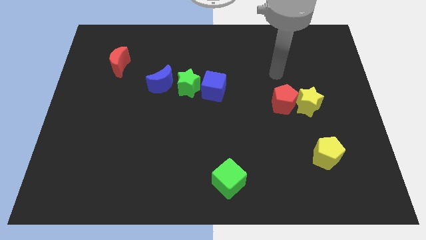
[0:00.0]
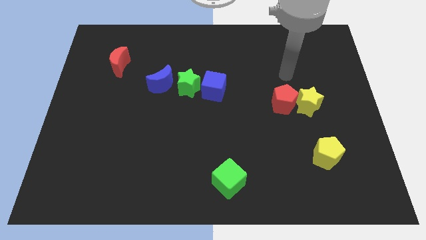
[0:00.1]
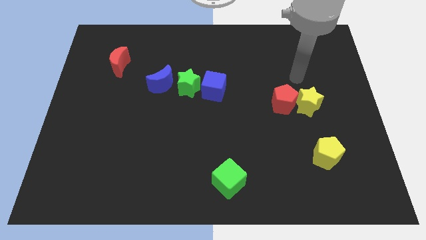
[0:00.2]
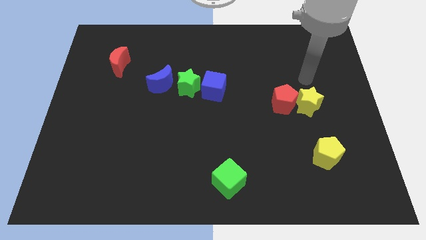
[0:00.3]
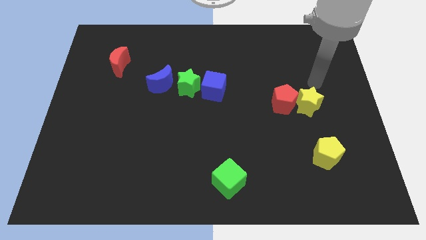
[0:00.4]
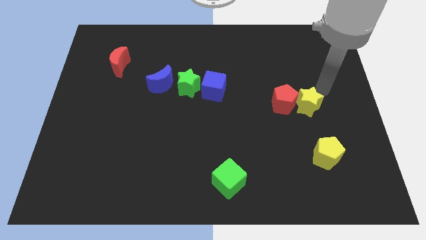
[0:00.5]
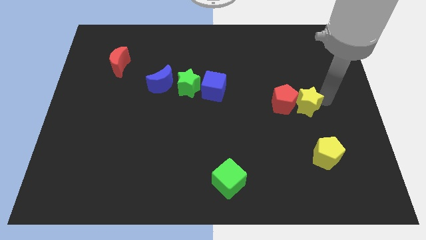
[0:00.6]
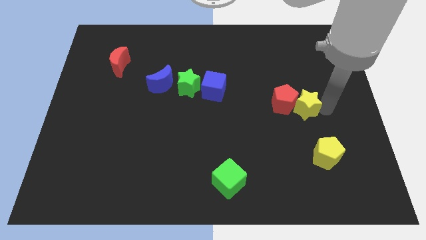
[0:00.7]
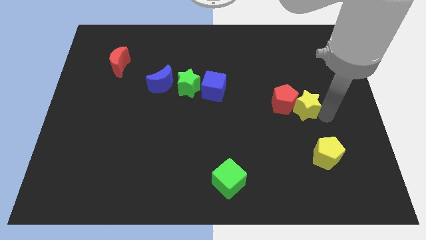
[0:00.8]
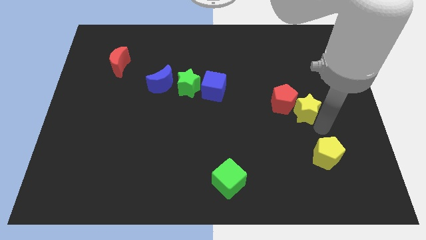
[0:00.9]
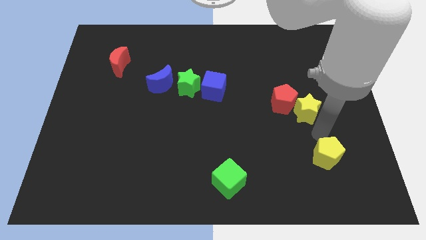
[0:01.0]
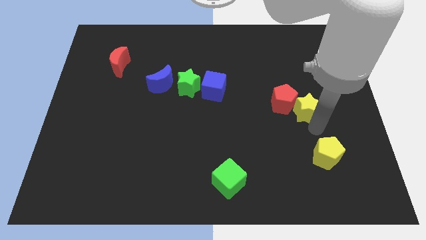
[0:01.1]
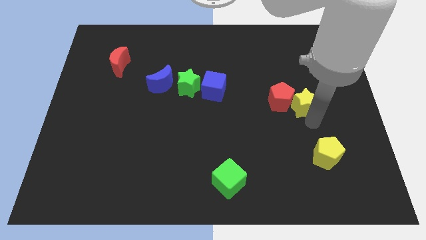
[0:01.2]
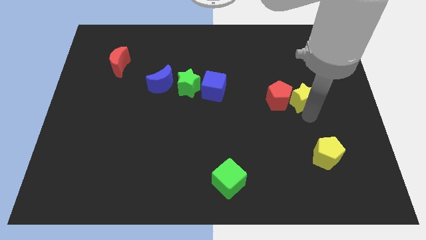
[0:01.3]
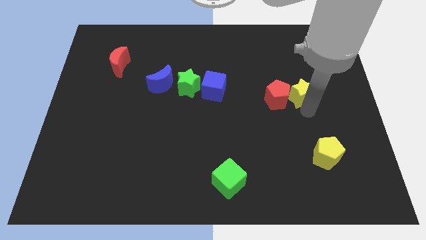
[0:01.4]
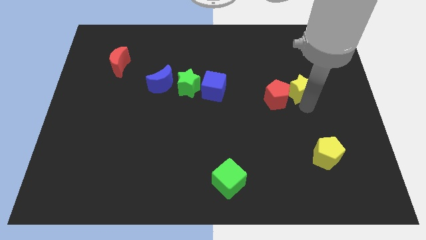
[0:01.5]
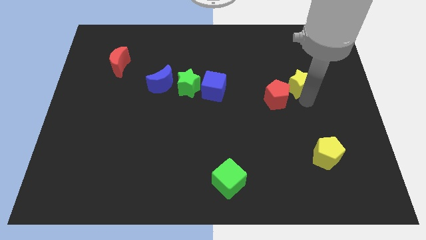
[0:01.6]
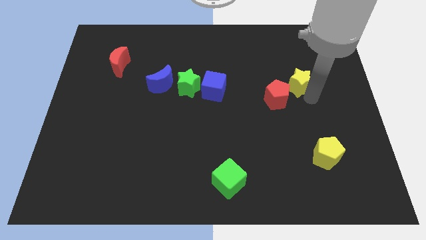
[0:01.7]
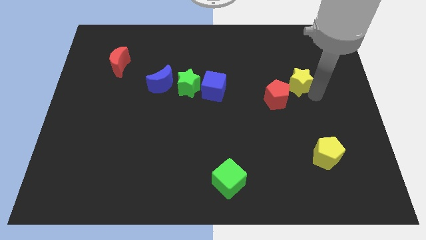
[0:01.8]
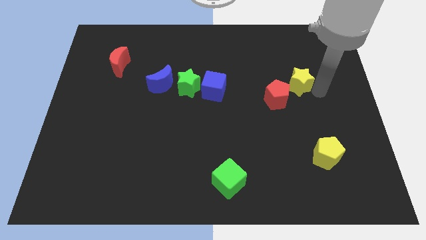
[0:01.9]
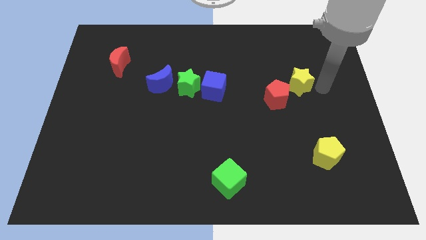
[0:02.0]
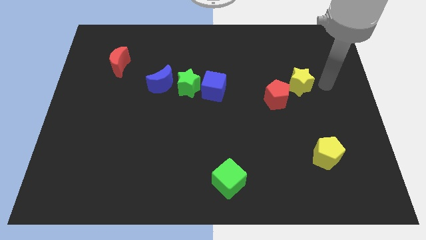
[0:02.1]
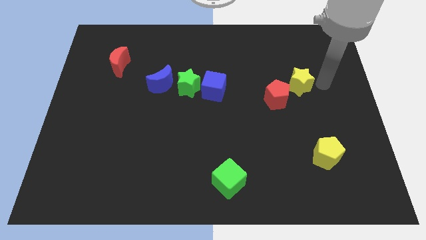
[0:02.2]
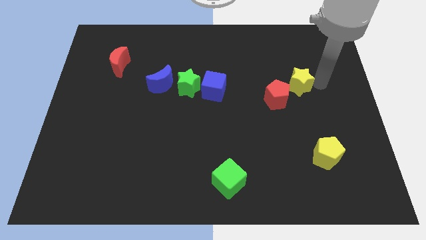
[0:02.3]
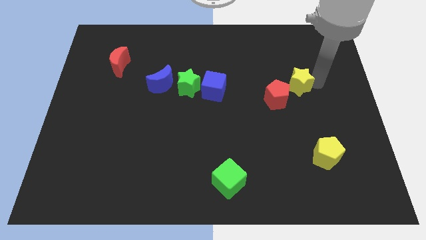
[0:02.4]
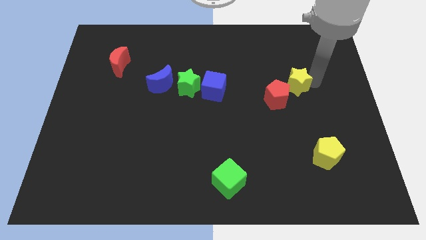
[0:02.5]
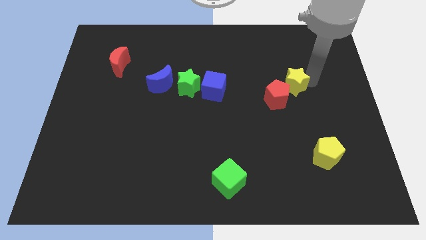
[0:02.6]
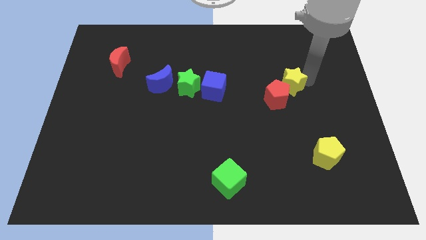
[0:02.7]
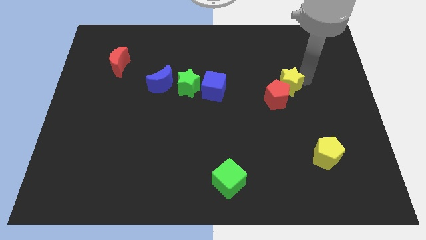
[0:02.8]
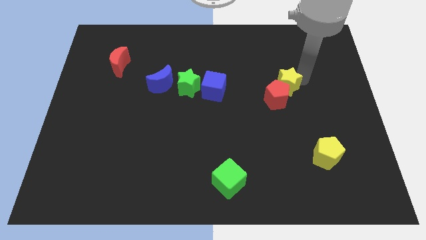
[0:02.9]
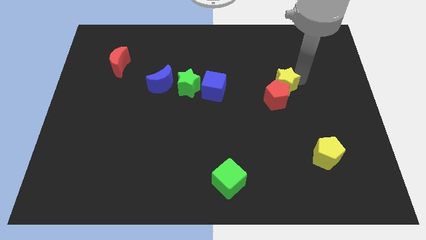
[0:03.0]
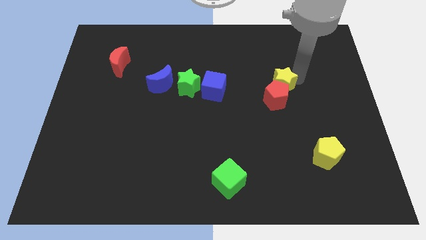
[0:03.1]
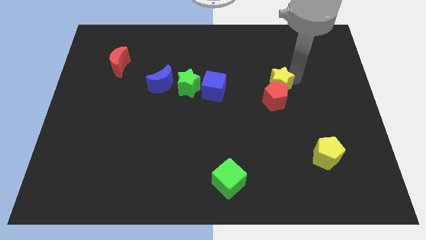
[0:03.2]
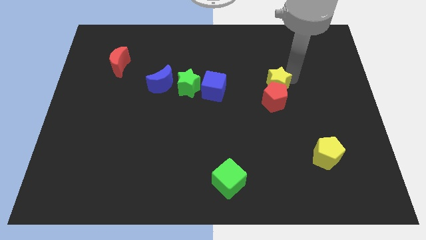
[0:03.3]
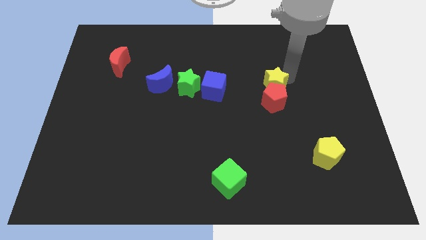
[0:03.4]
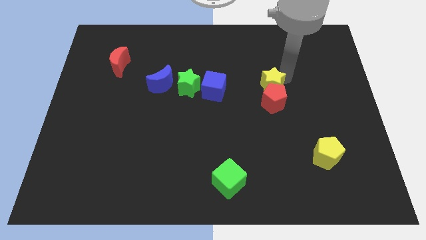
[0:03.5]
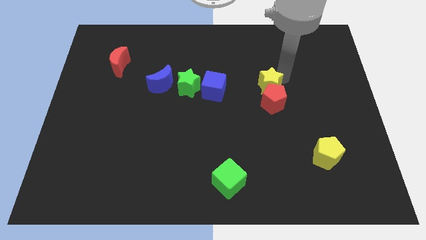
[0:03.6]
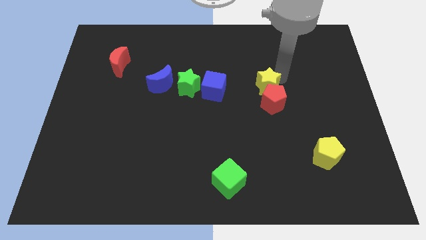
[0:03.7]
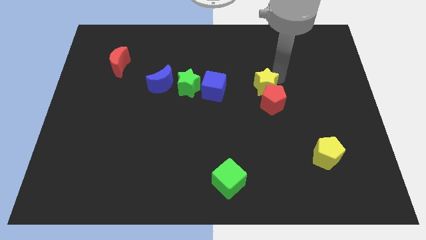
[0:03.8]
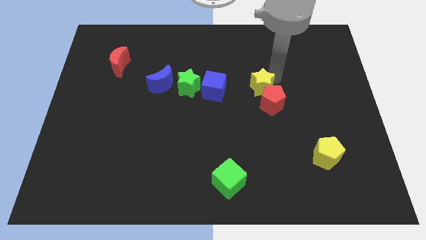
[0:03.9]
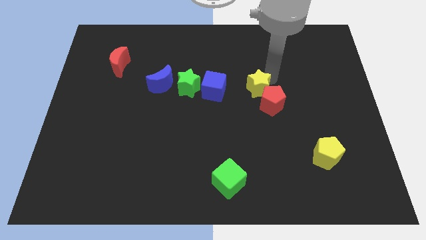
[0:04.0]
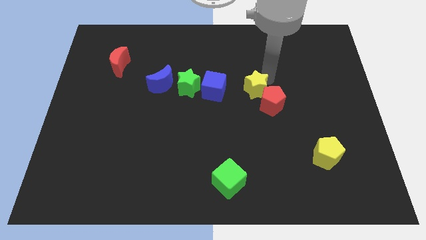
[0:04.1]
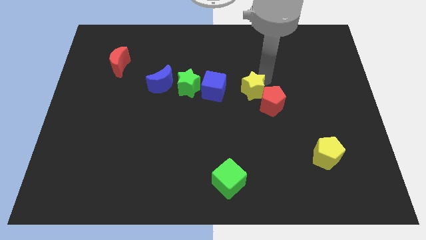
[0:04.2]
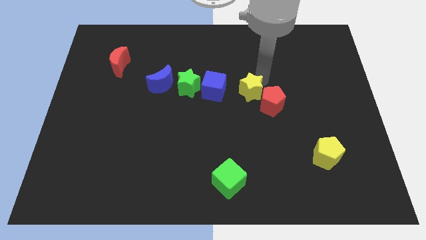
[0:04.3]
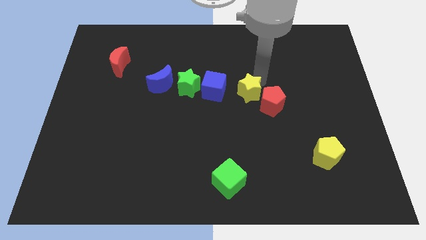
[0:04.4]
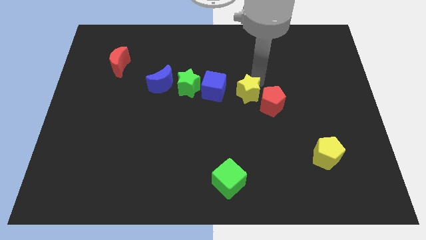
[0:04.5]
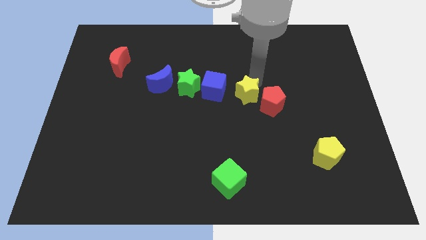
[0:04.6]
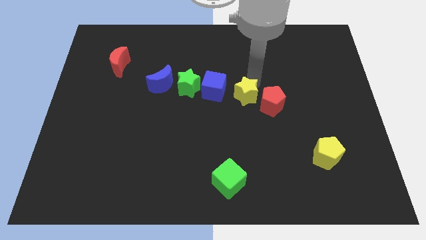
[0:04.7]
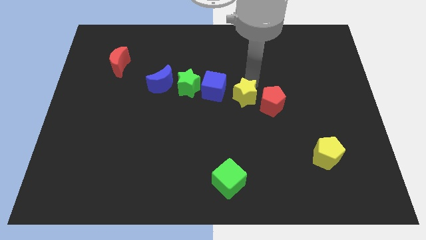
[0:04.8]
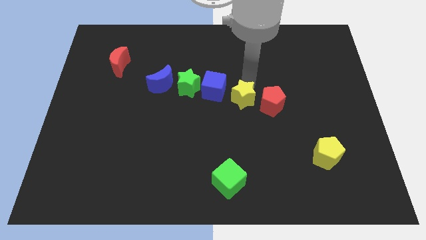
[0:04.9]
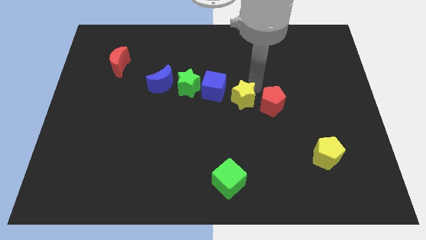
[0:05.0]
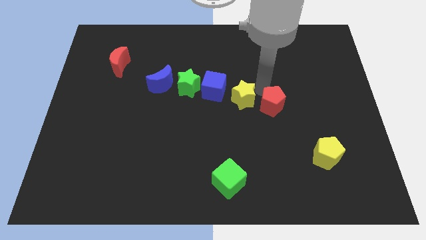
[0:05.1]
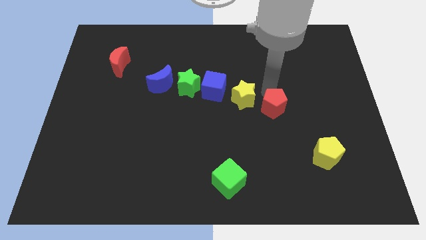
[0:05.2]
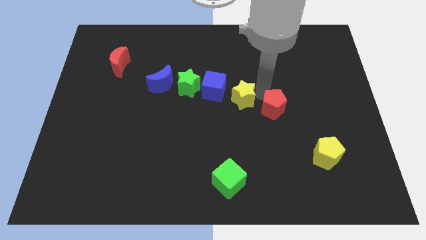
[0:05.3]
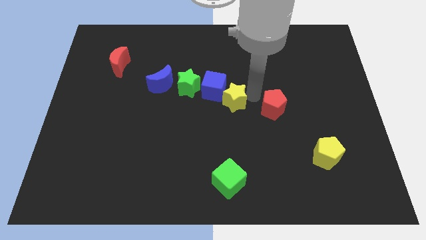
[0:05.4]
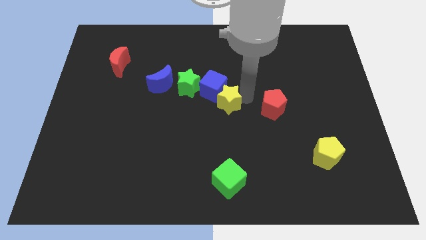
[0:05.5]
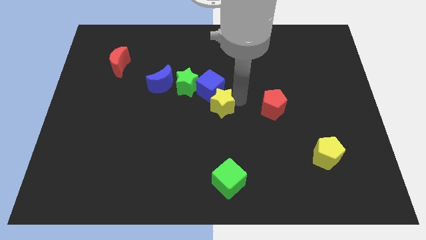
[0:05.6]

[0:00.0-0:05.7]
push the yellow star left

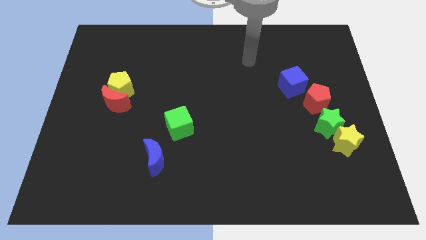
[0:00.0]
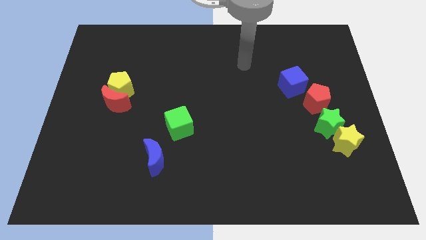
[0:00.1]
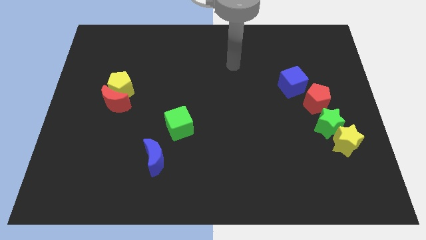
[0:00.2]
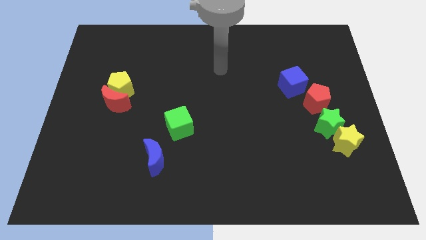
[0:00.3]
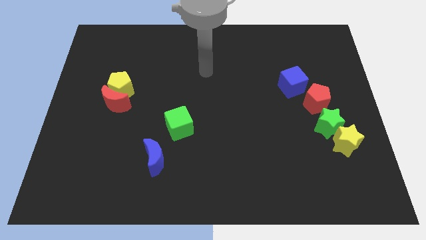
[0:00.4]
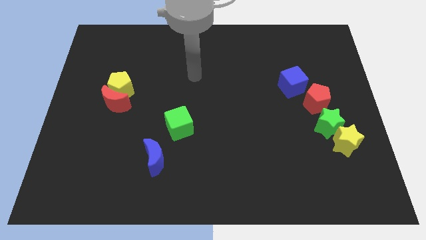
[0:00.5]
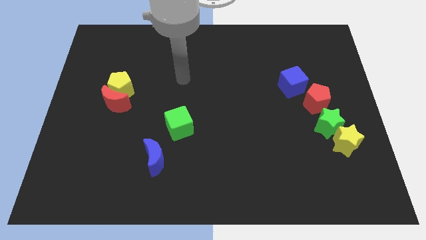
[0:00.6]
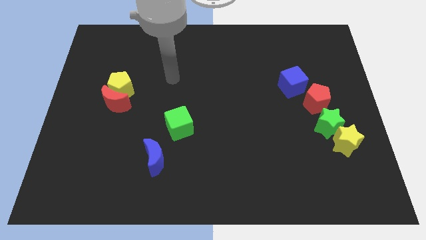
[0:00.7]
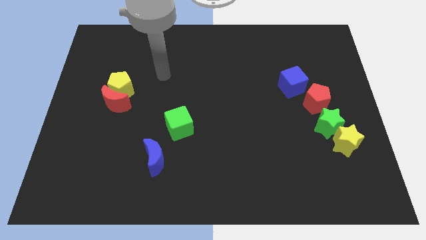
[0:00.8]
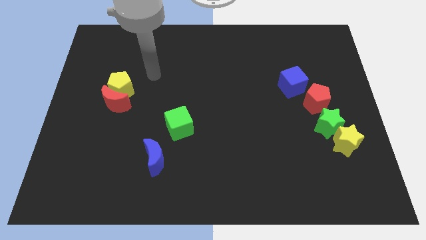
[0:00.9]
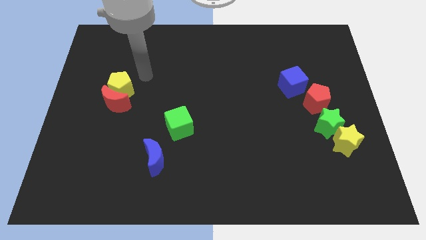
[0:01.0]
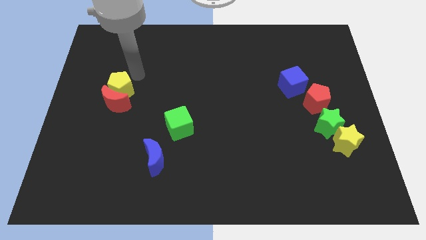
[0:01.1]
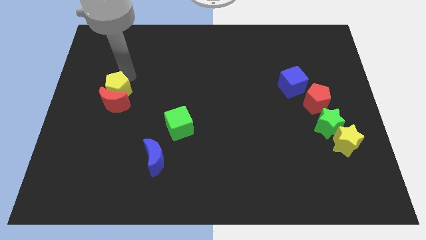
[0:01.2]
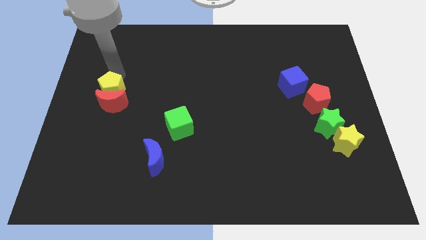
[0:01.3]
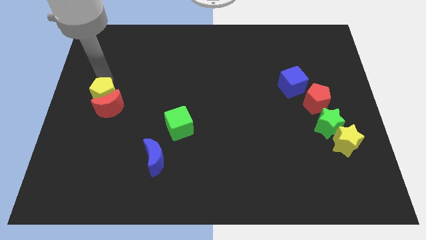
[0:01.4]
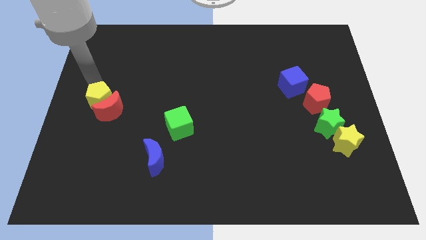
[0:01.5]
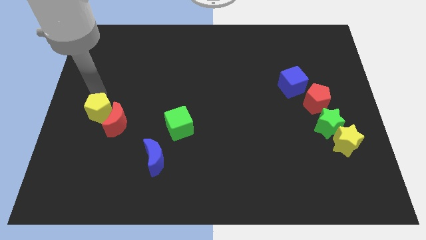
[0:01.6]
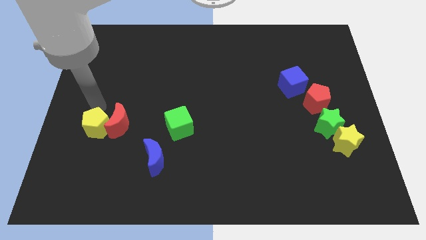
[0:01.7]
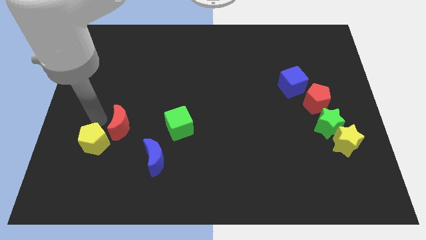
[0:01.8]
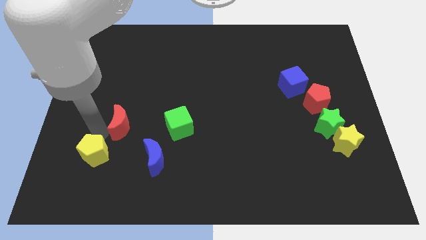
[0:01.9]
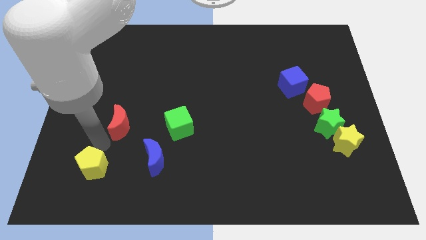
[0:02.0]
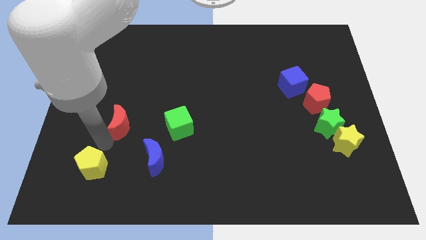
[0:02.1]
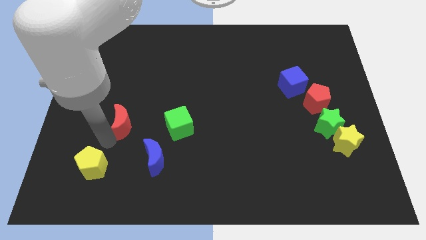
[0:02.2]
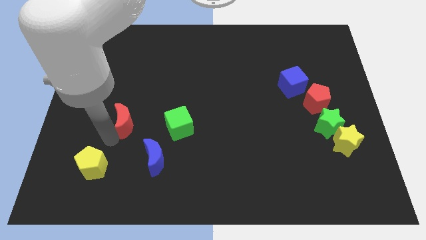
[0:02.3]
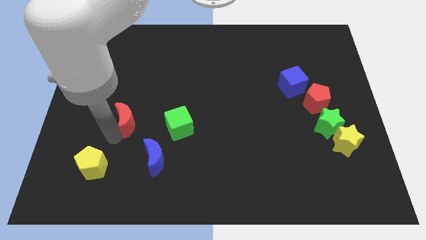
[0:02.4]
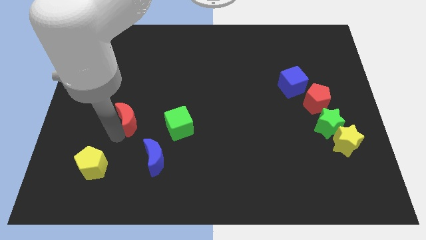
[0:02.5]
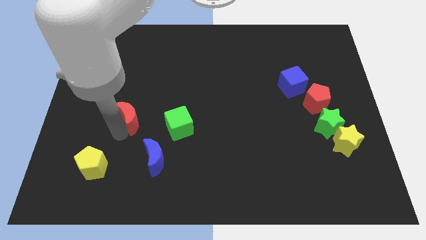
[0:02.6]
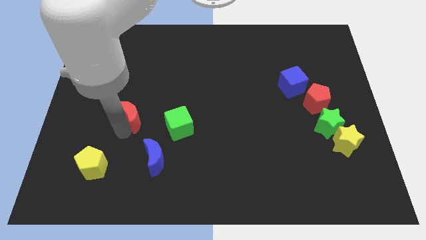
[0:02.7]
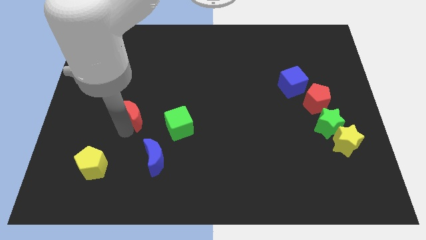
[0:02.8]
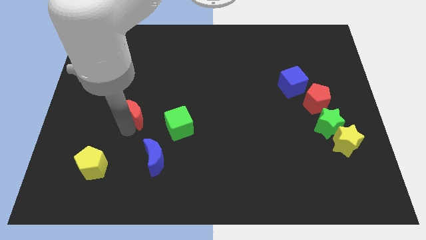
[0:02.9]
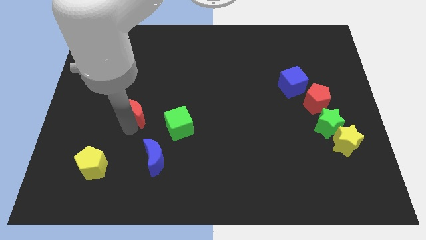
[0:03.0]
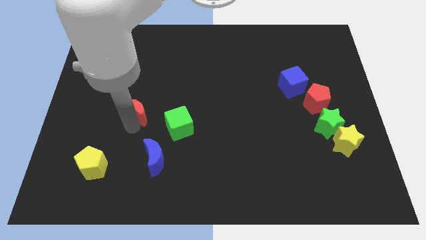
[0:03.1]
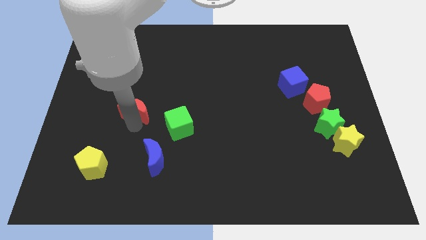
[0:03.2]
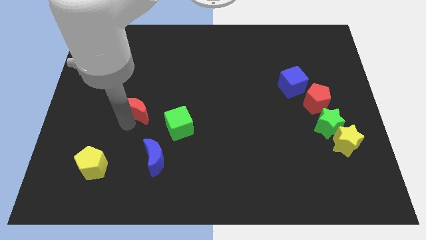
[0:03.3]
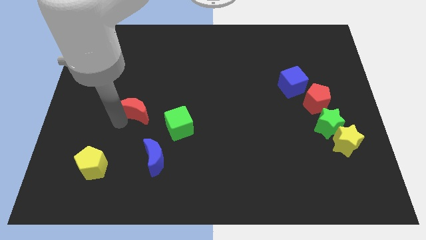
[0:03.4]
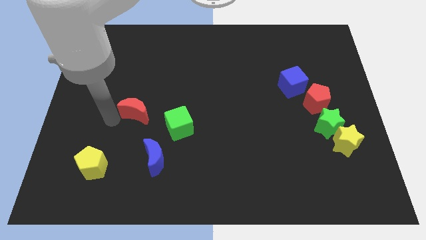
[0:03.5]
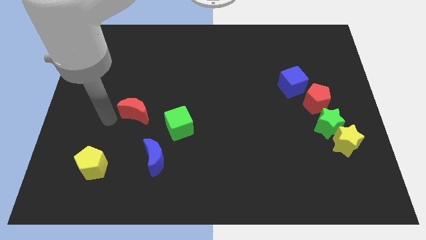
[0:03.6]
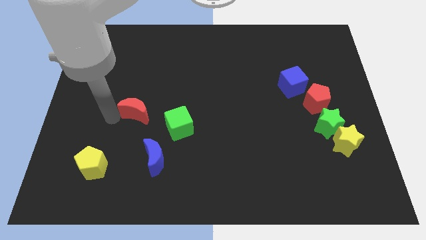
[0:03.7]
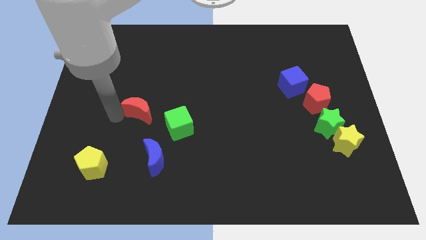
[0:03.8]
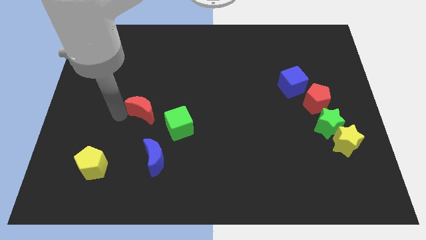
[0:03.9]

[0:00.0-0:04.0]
slightly move the red moon to the right
